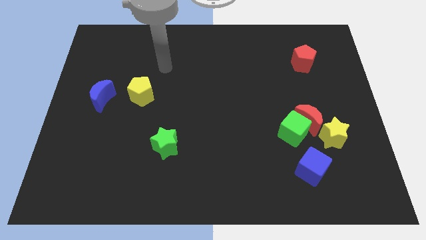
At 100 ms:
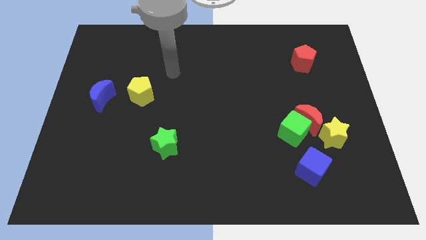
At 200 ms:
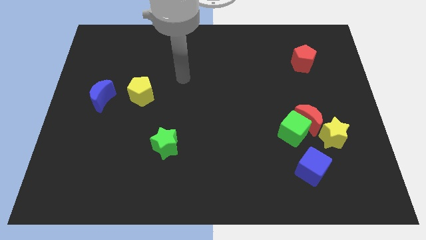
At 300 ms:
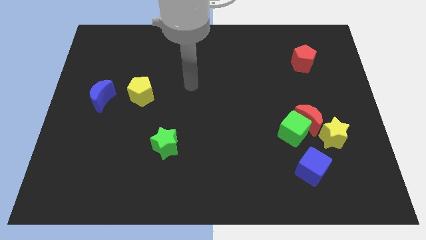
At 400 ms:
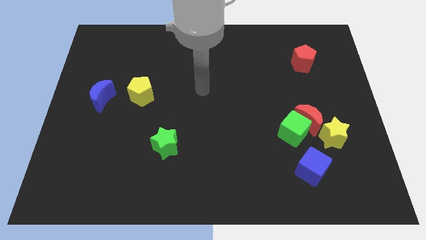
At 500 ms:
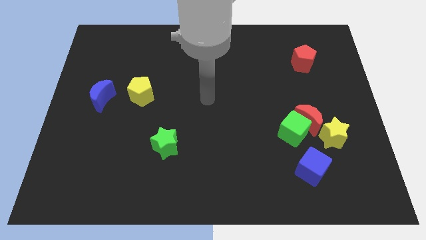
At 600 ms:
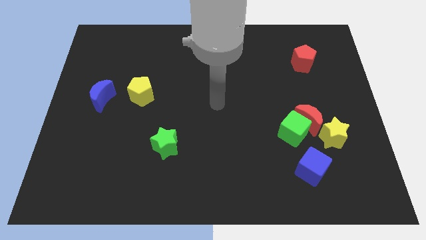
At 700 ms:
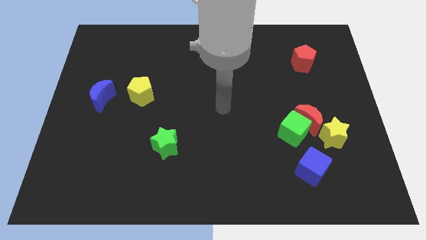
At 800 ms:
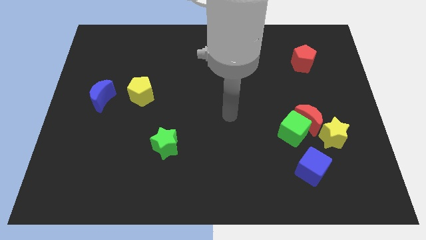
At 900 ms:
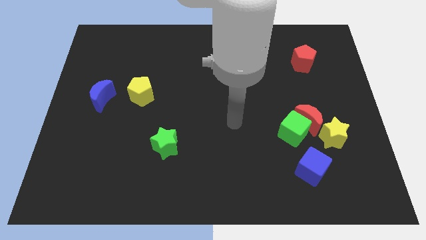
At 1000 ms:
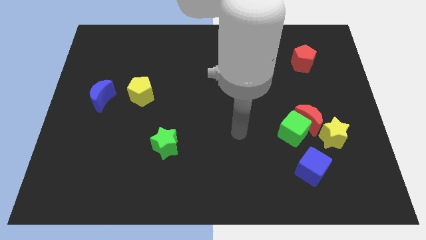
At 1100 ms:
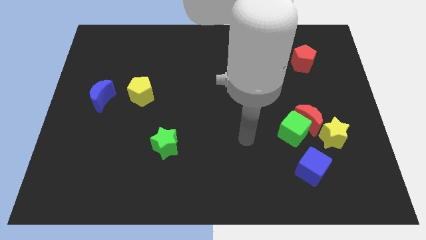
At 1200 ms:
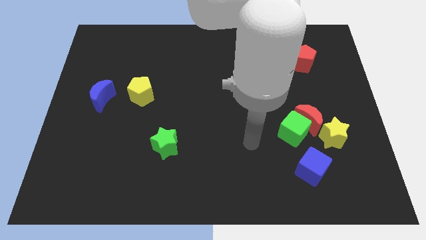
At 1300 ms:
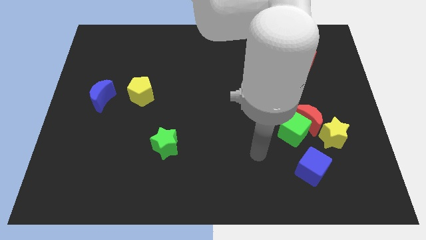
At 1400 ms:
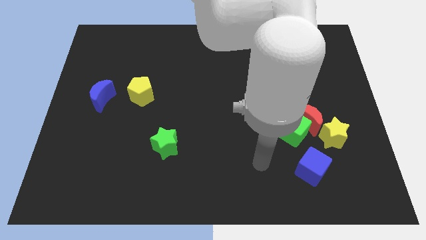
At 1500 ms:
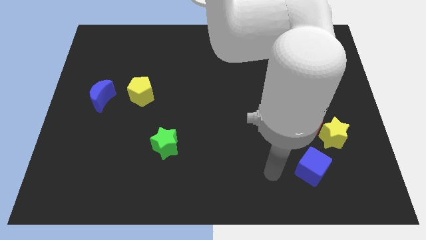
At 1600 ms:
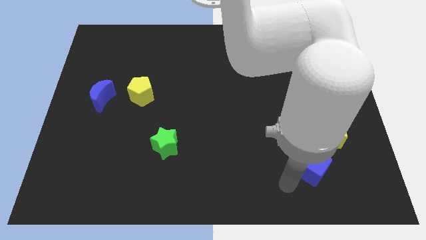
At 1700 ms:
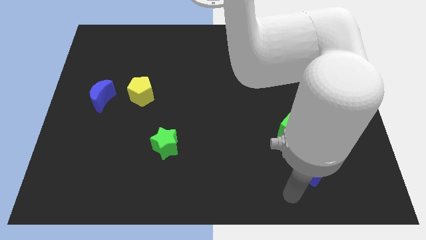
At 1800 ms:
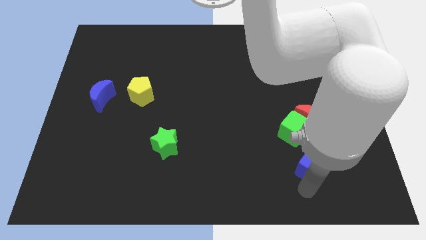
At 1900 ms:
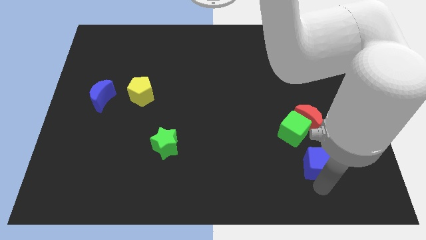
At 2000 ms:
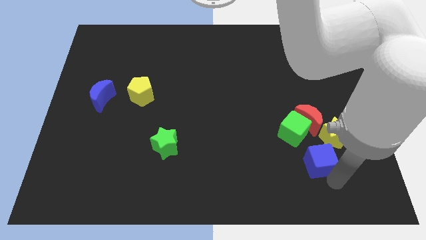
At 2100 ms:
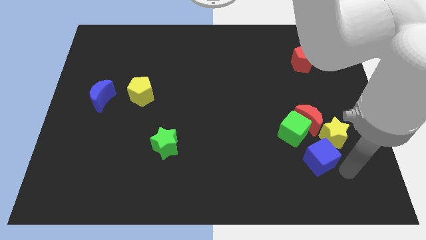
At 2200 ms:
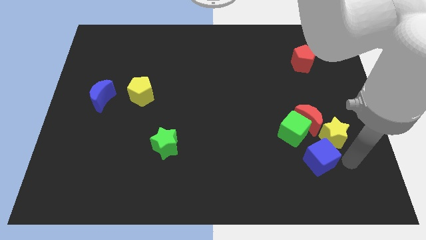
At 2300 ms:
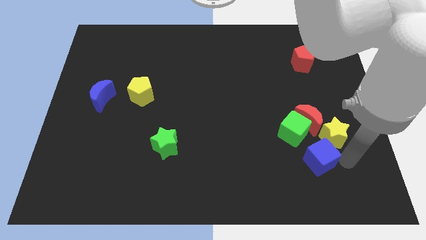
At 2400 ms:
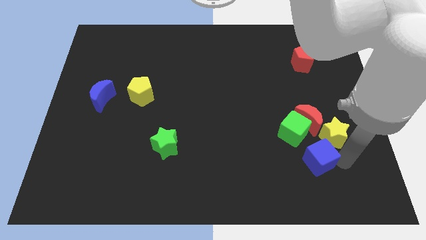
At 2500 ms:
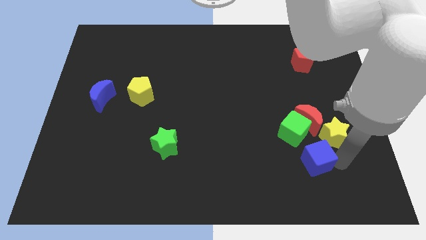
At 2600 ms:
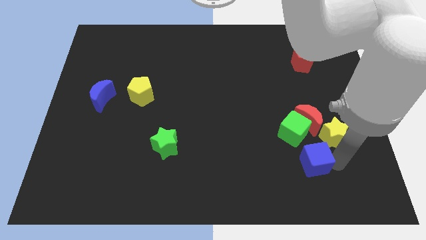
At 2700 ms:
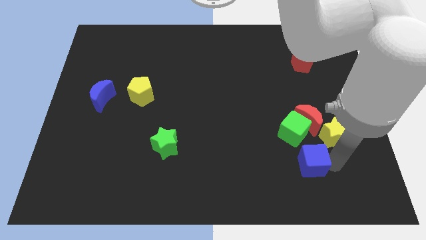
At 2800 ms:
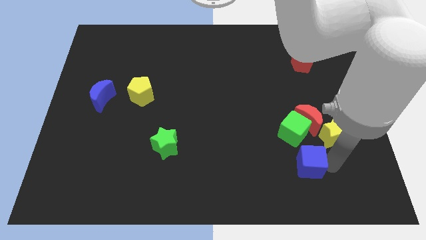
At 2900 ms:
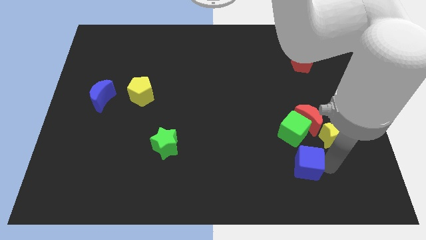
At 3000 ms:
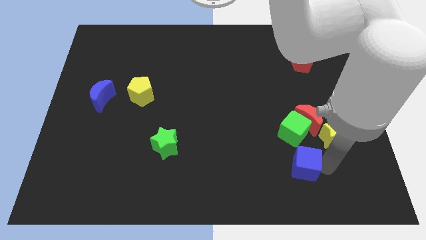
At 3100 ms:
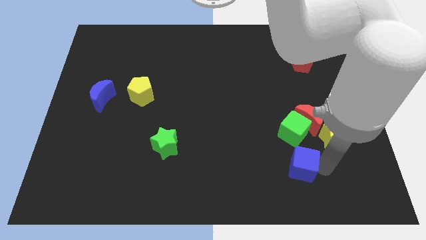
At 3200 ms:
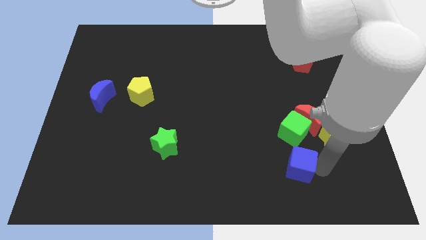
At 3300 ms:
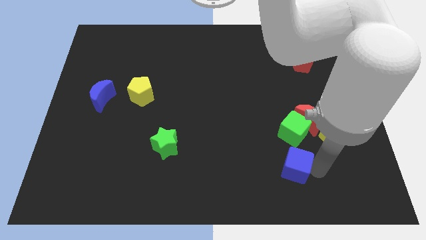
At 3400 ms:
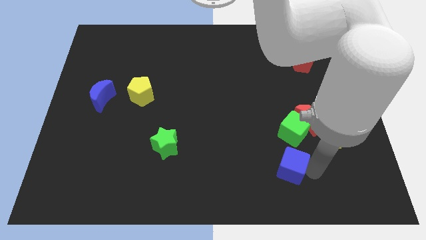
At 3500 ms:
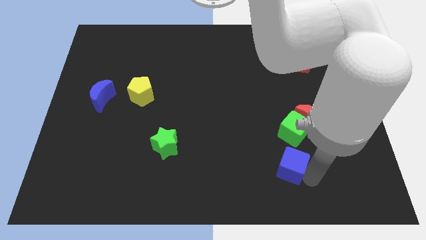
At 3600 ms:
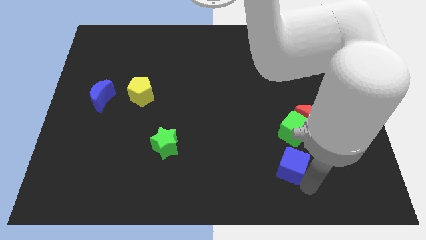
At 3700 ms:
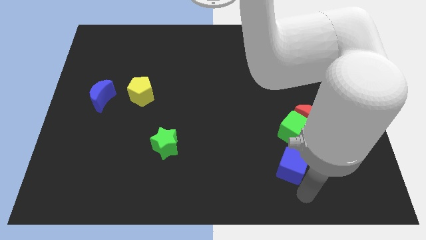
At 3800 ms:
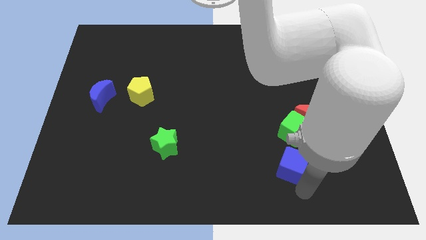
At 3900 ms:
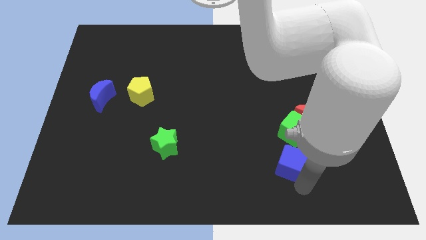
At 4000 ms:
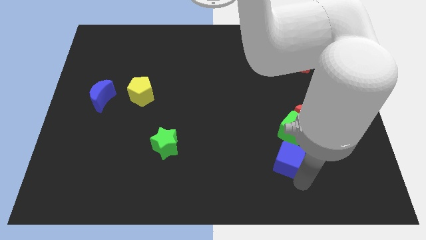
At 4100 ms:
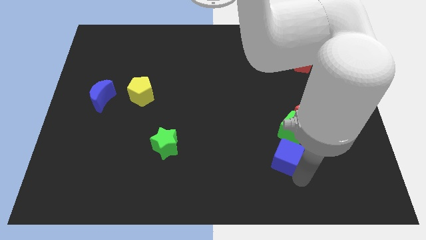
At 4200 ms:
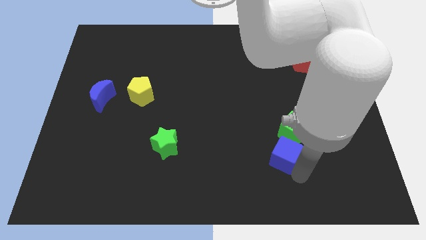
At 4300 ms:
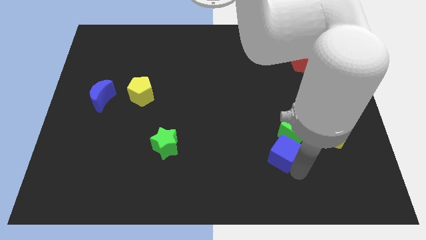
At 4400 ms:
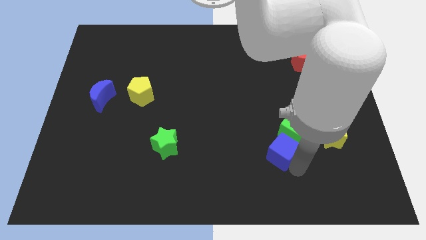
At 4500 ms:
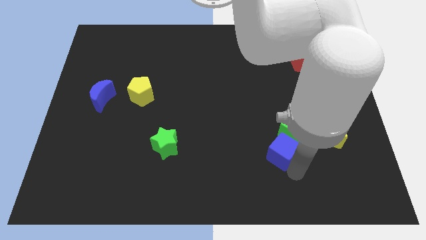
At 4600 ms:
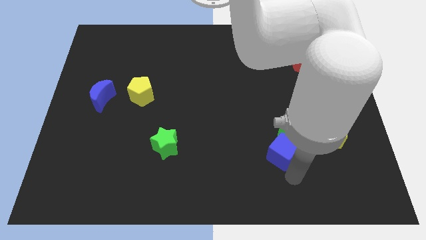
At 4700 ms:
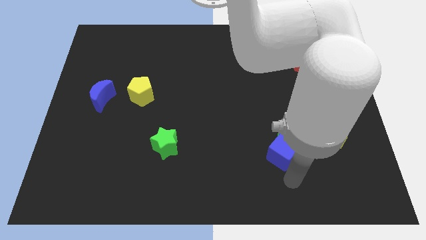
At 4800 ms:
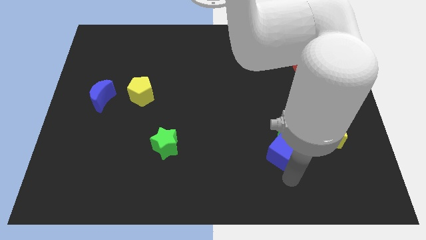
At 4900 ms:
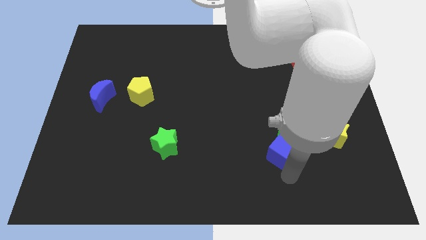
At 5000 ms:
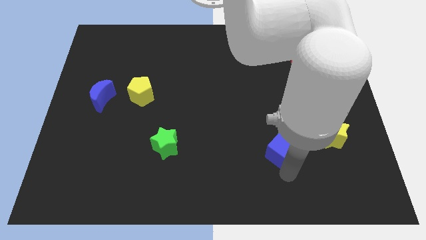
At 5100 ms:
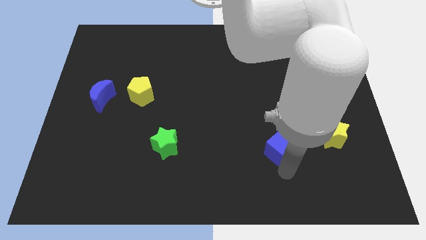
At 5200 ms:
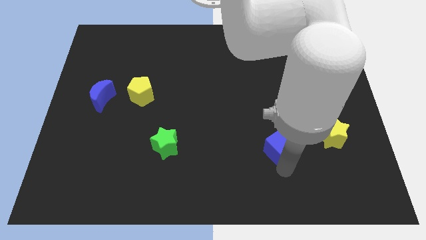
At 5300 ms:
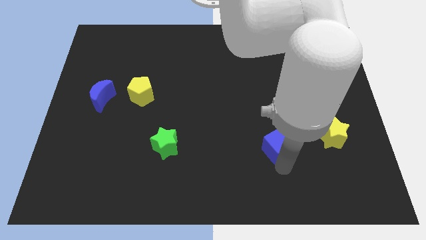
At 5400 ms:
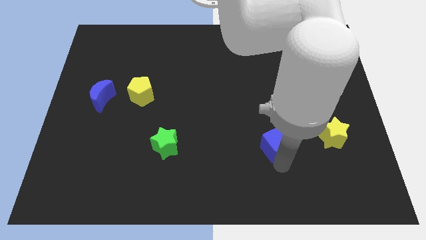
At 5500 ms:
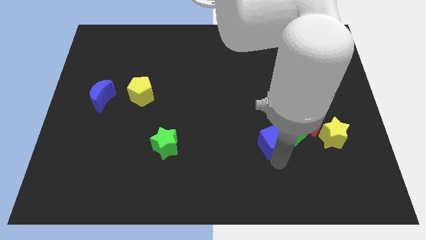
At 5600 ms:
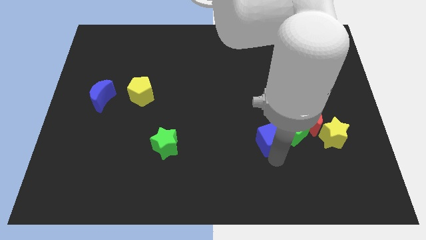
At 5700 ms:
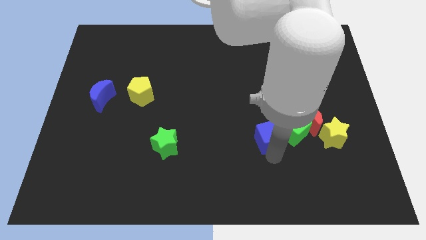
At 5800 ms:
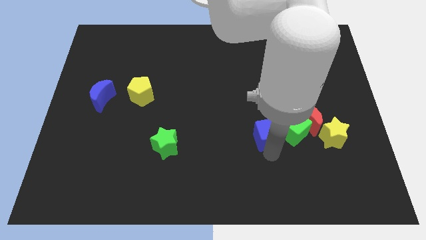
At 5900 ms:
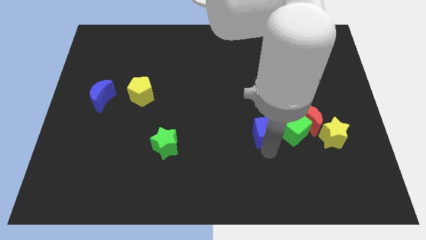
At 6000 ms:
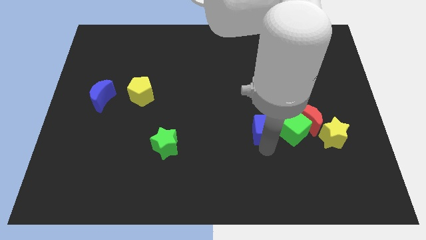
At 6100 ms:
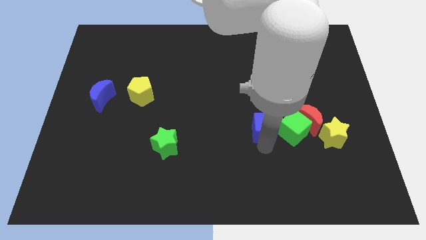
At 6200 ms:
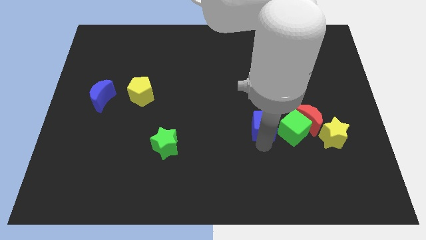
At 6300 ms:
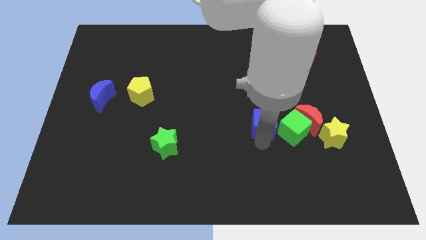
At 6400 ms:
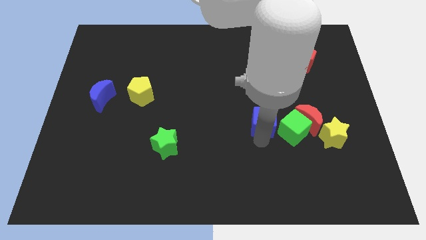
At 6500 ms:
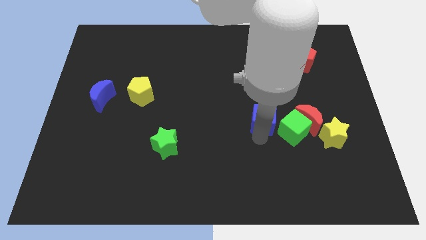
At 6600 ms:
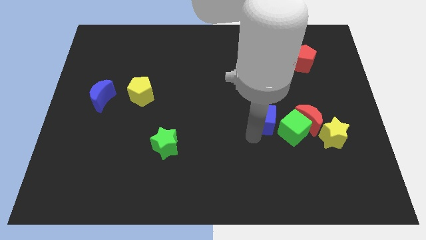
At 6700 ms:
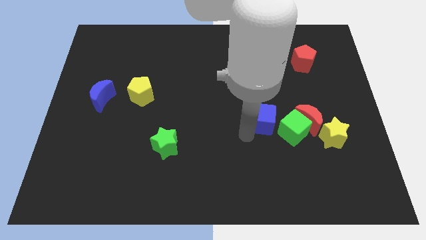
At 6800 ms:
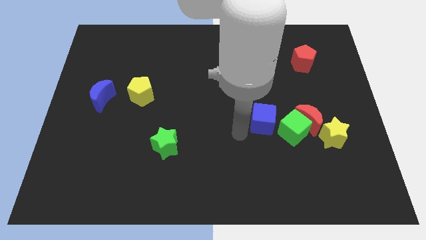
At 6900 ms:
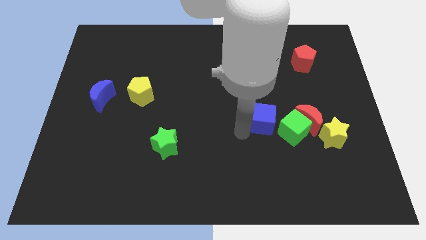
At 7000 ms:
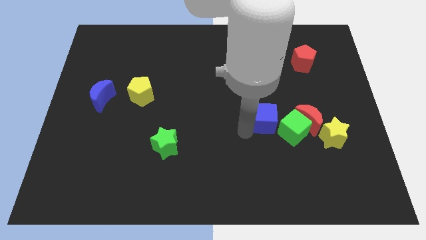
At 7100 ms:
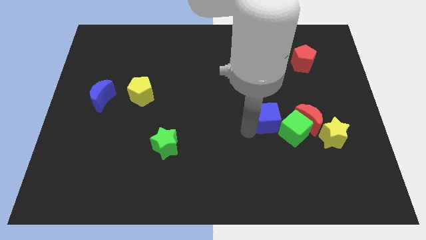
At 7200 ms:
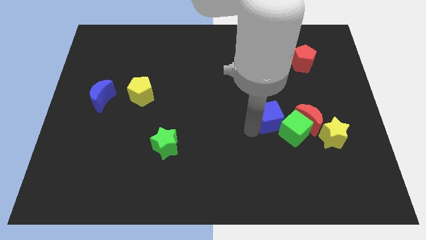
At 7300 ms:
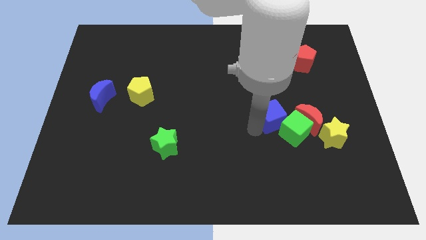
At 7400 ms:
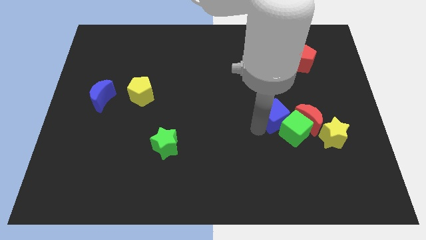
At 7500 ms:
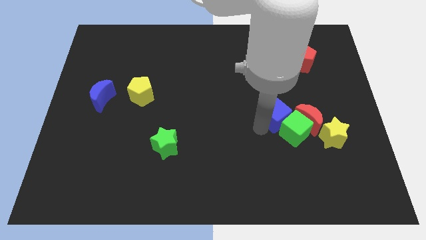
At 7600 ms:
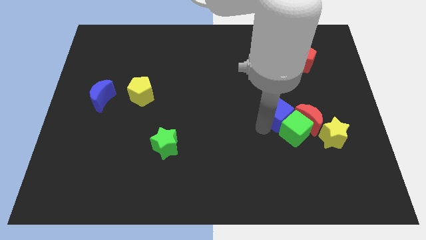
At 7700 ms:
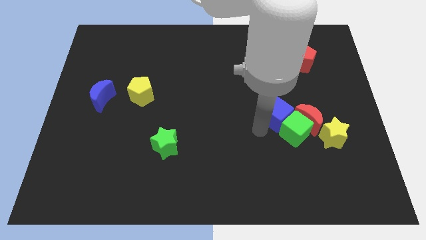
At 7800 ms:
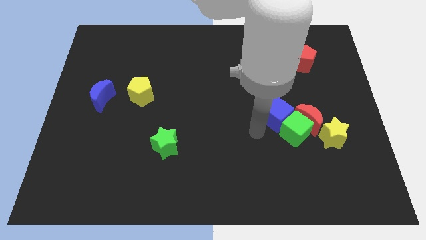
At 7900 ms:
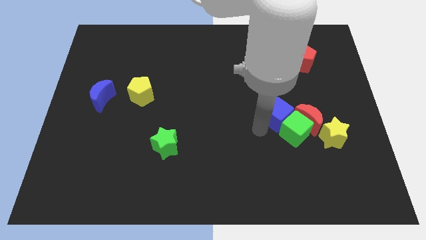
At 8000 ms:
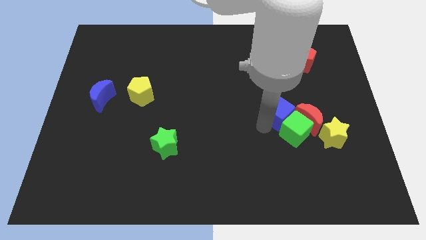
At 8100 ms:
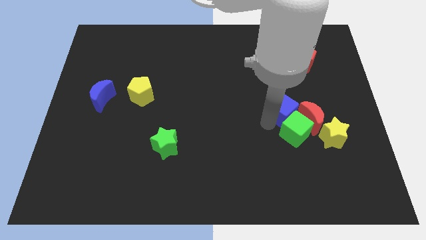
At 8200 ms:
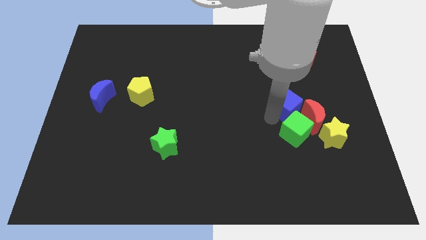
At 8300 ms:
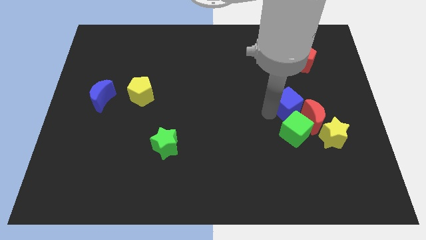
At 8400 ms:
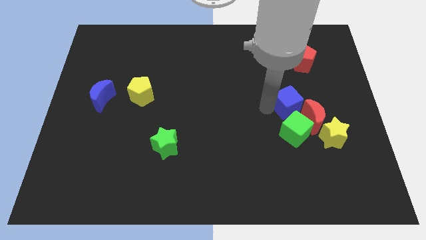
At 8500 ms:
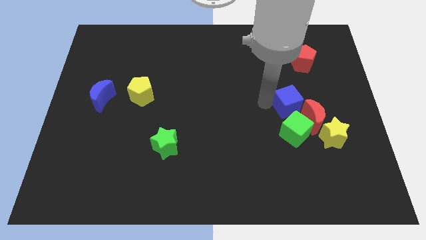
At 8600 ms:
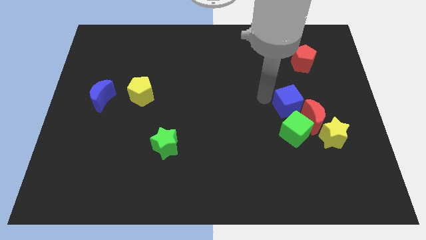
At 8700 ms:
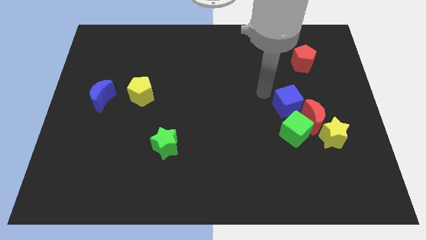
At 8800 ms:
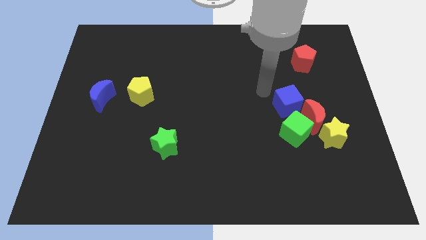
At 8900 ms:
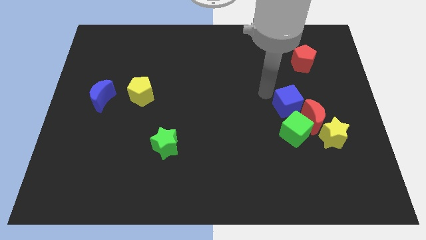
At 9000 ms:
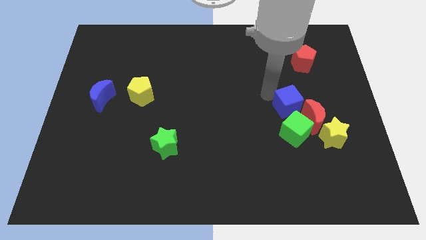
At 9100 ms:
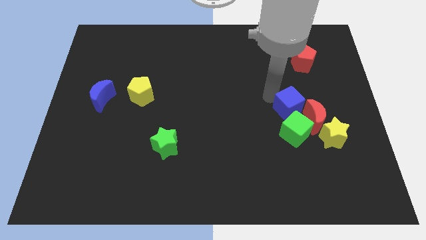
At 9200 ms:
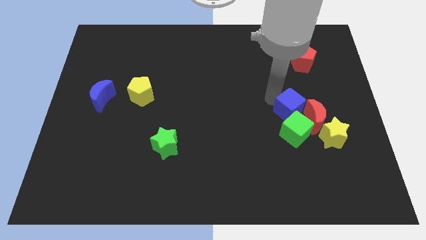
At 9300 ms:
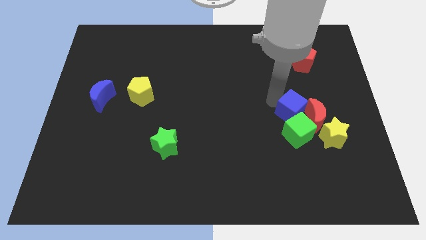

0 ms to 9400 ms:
put the blue cube close to the red moon
